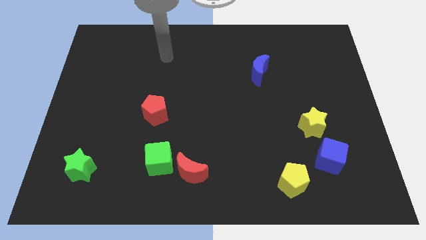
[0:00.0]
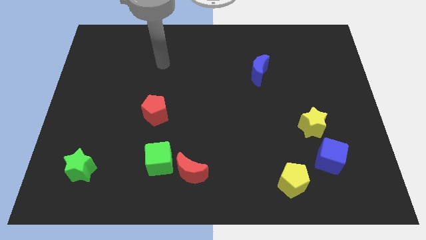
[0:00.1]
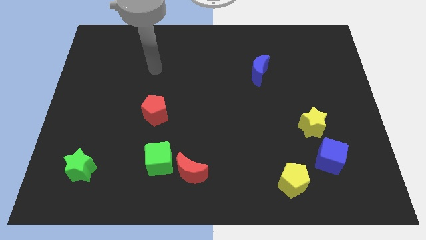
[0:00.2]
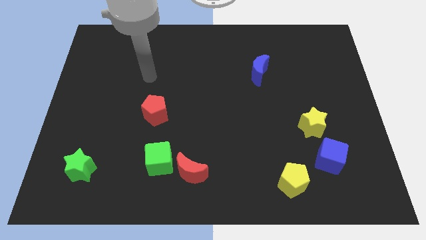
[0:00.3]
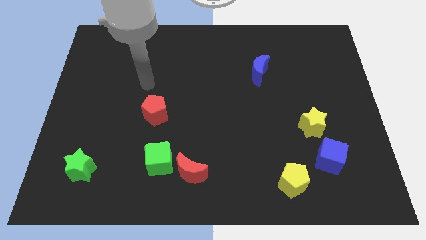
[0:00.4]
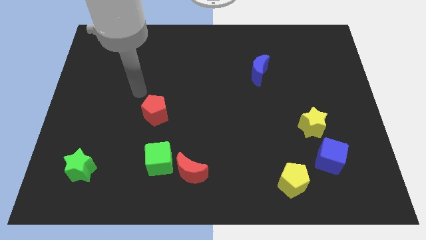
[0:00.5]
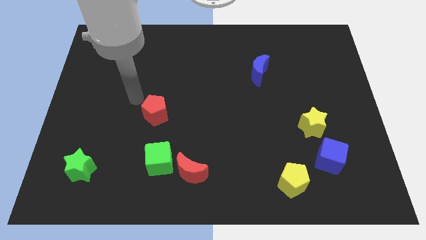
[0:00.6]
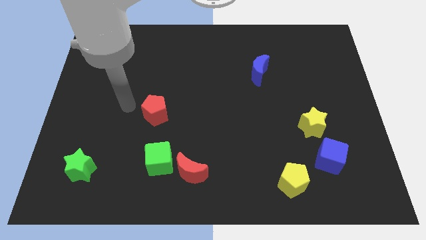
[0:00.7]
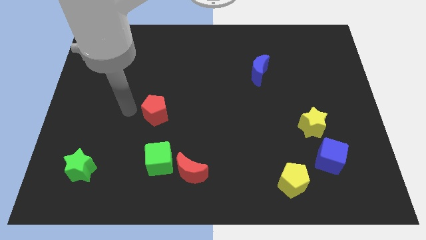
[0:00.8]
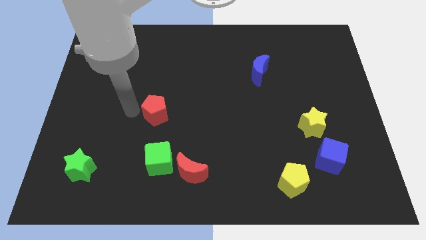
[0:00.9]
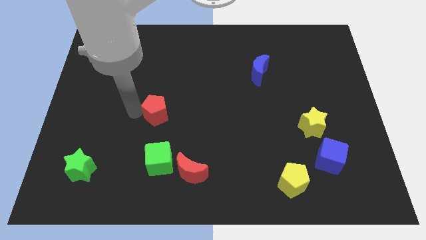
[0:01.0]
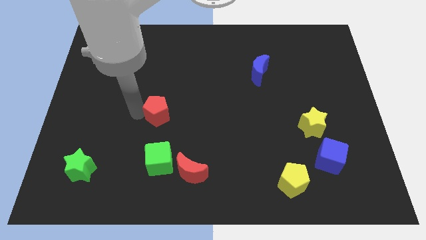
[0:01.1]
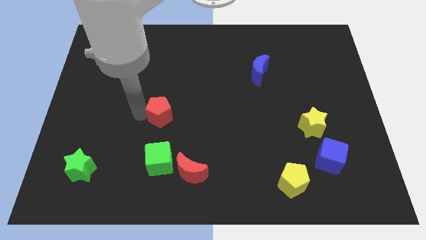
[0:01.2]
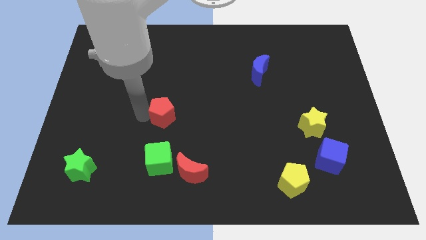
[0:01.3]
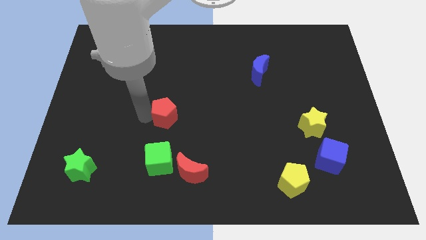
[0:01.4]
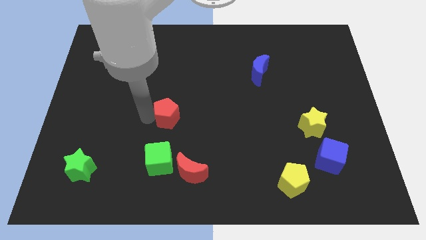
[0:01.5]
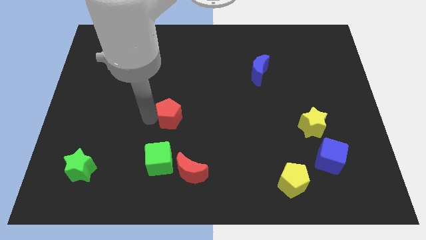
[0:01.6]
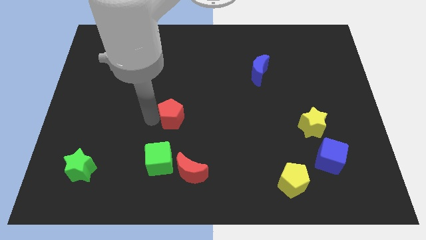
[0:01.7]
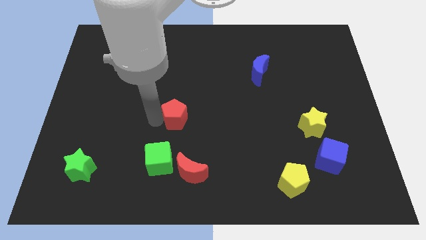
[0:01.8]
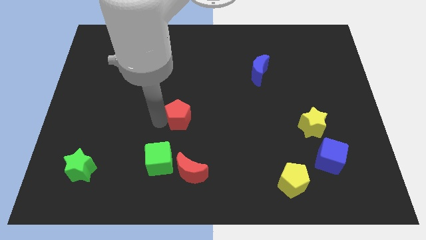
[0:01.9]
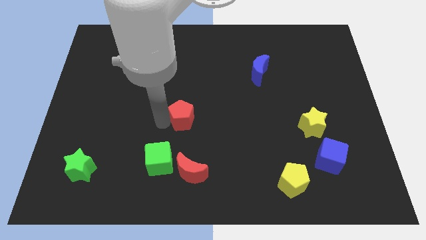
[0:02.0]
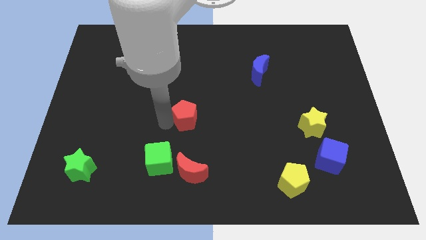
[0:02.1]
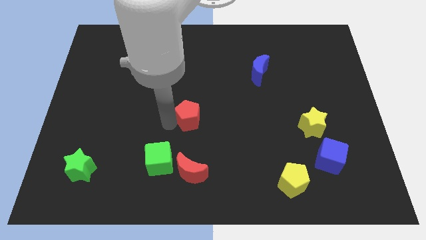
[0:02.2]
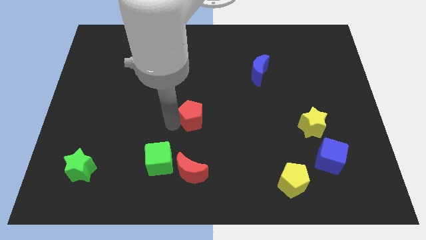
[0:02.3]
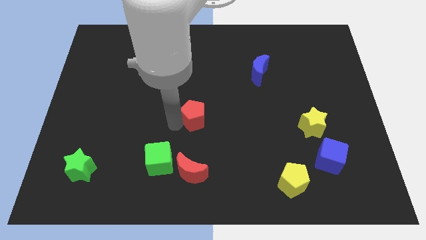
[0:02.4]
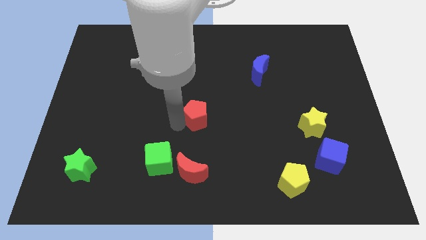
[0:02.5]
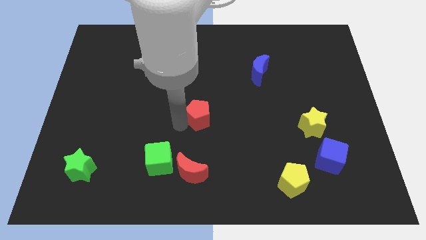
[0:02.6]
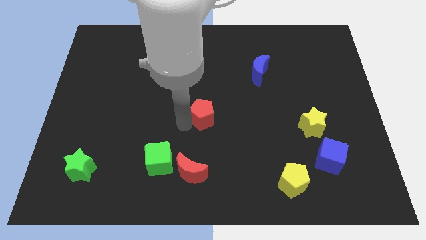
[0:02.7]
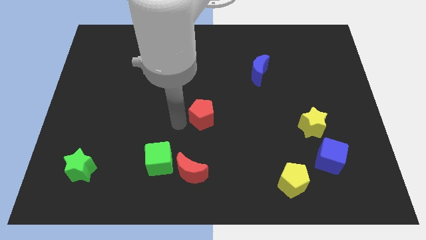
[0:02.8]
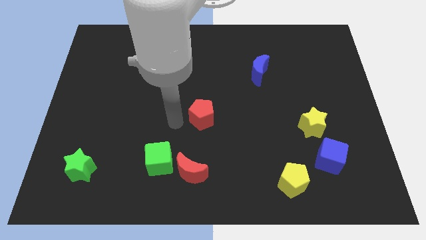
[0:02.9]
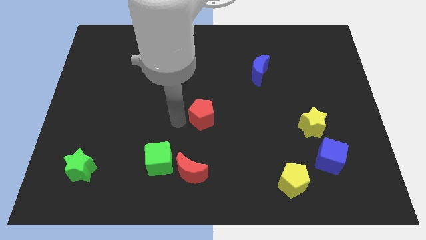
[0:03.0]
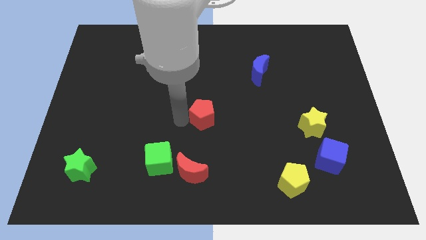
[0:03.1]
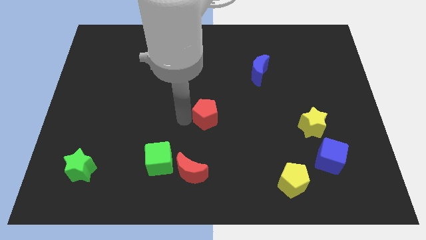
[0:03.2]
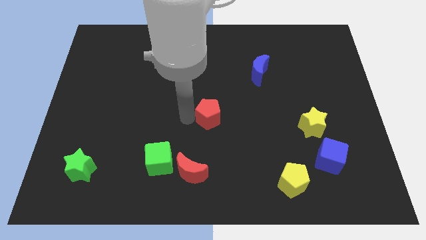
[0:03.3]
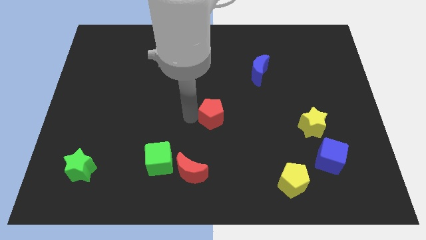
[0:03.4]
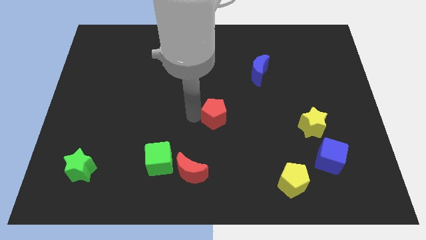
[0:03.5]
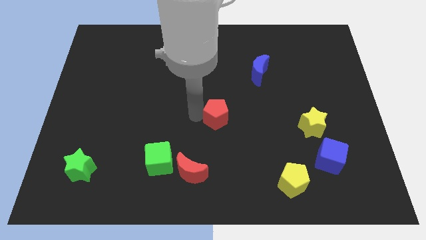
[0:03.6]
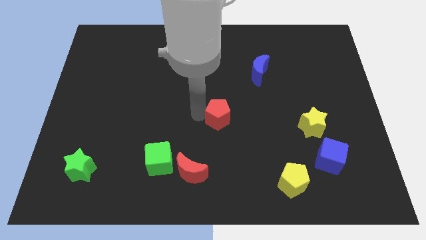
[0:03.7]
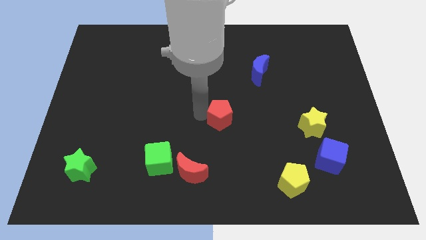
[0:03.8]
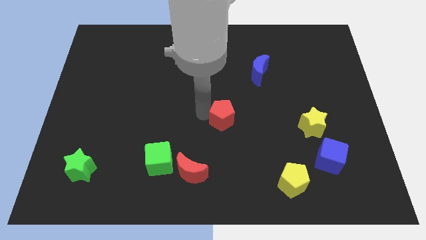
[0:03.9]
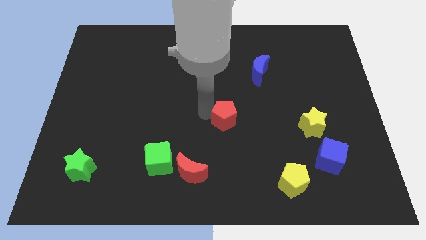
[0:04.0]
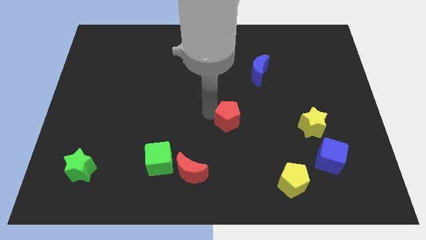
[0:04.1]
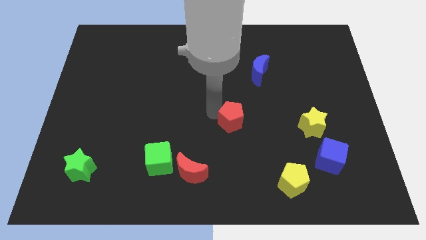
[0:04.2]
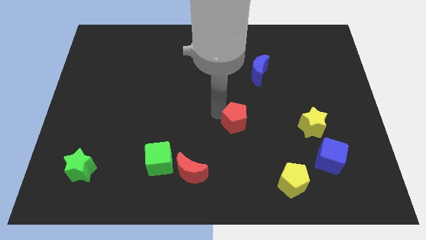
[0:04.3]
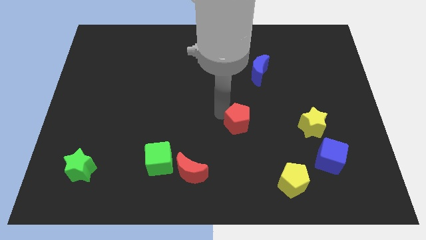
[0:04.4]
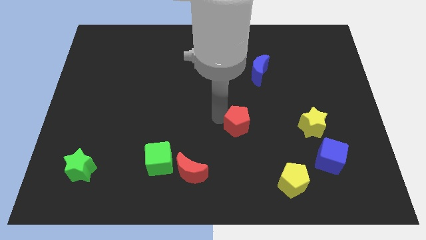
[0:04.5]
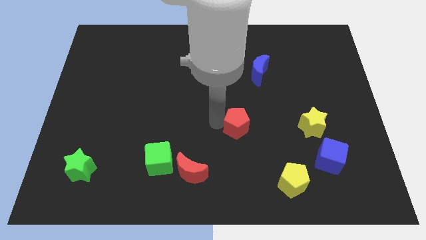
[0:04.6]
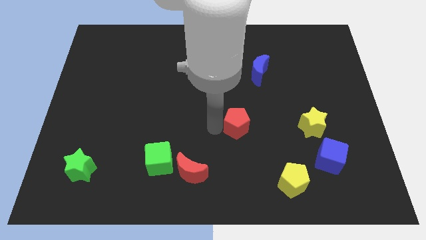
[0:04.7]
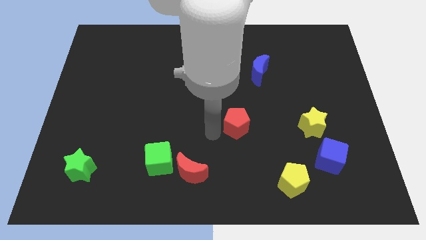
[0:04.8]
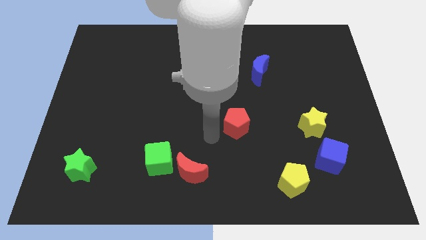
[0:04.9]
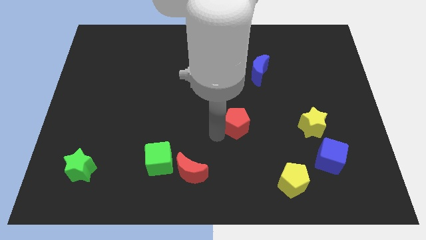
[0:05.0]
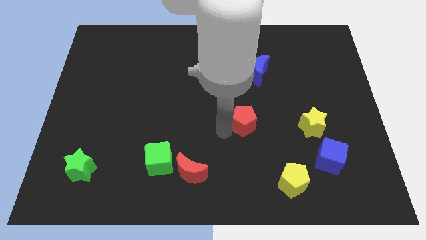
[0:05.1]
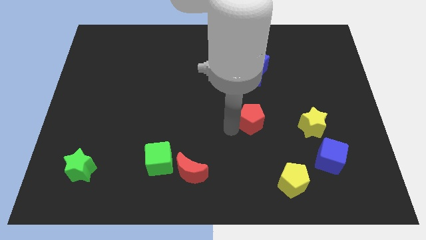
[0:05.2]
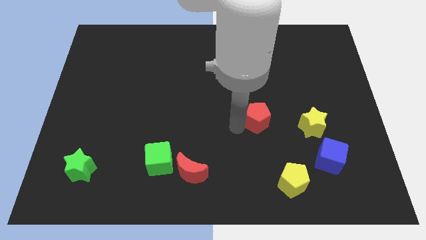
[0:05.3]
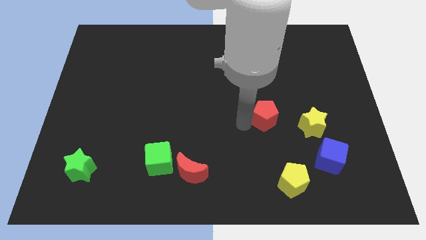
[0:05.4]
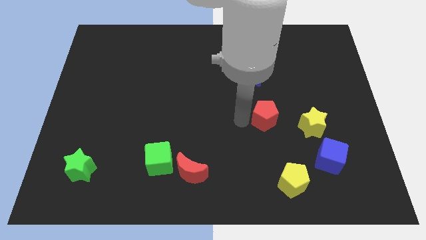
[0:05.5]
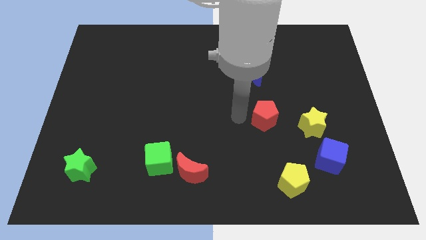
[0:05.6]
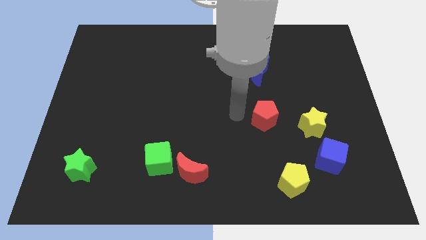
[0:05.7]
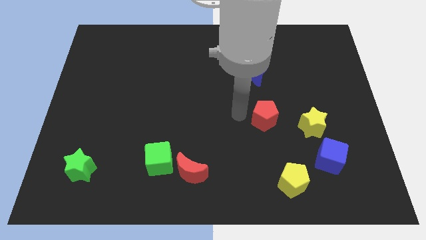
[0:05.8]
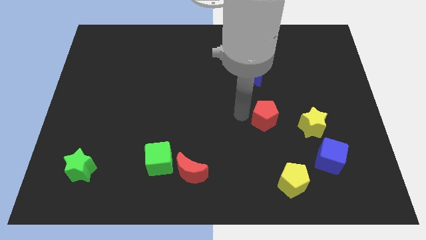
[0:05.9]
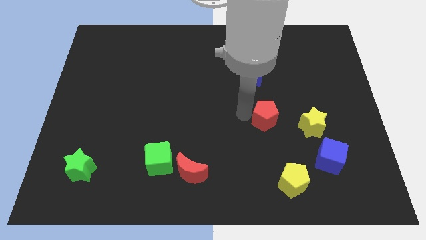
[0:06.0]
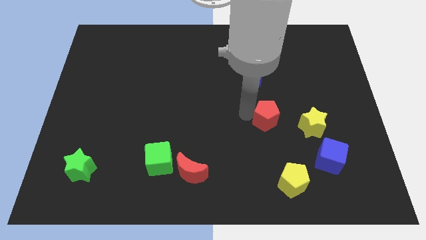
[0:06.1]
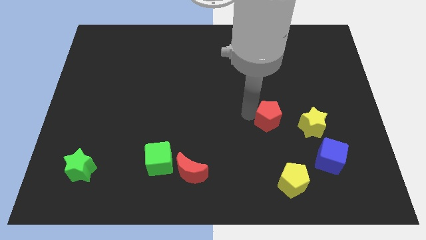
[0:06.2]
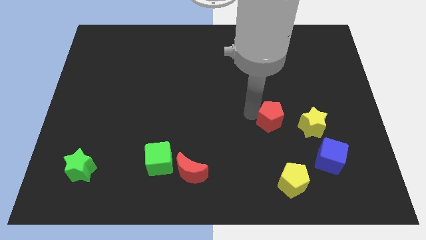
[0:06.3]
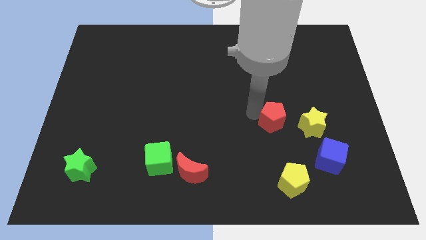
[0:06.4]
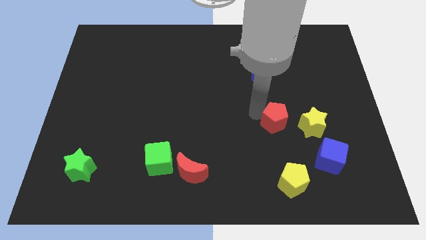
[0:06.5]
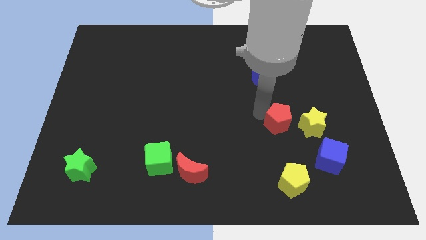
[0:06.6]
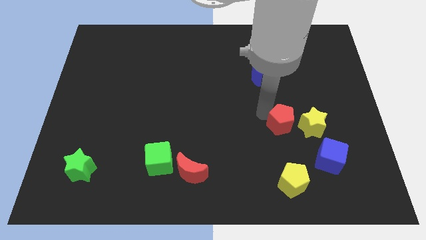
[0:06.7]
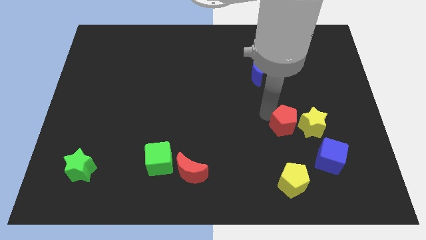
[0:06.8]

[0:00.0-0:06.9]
move the red pentagon next to the yellow star

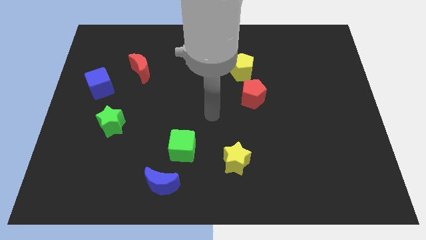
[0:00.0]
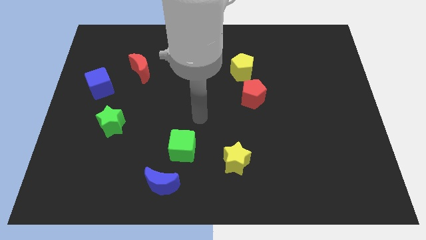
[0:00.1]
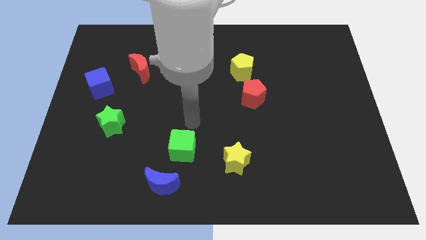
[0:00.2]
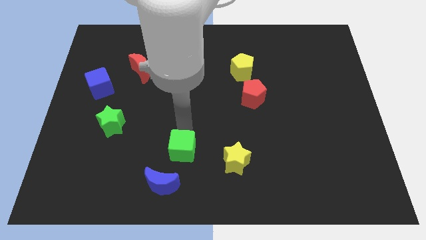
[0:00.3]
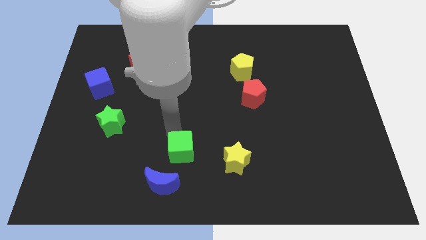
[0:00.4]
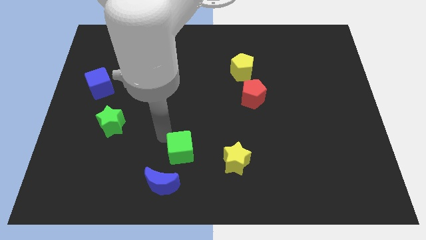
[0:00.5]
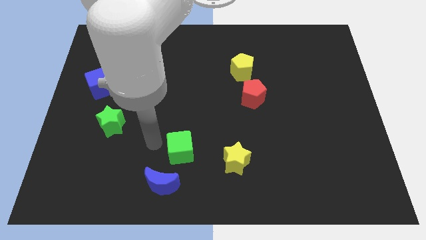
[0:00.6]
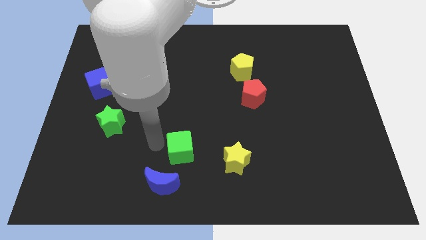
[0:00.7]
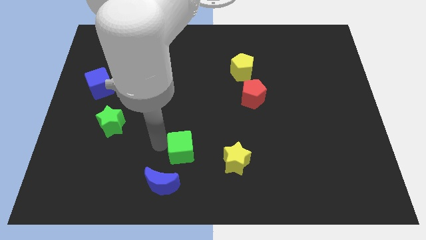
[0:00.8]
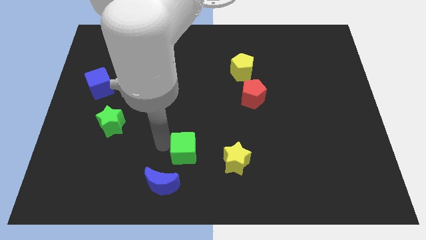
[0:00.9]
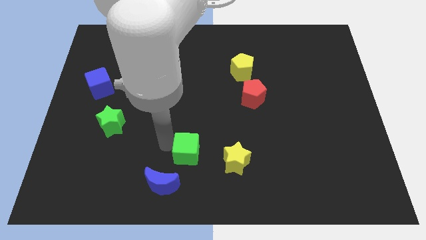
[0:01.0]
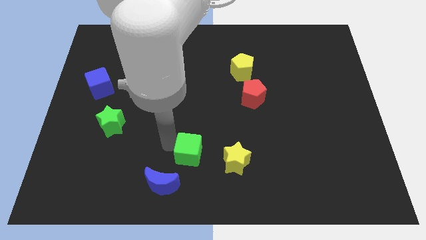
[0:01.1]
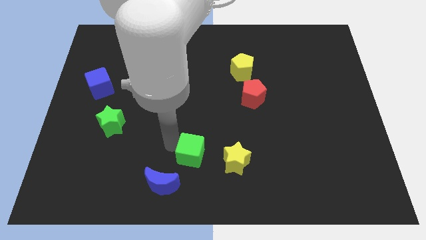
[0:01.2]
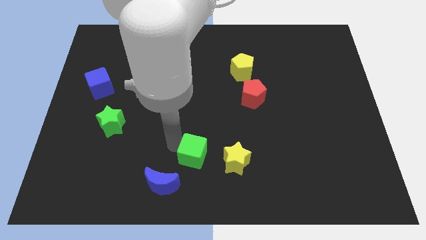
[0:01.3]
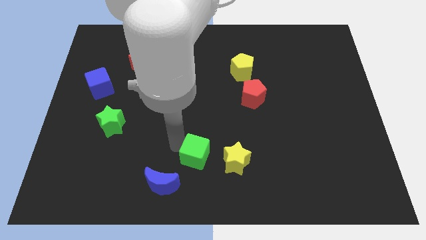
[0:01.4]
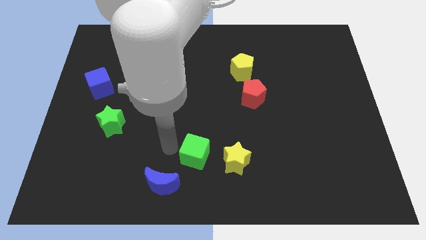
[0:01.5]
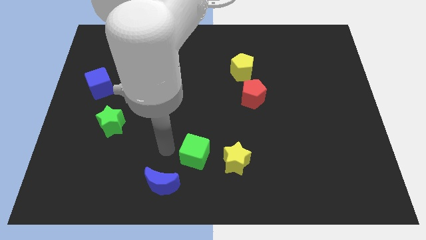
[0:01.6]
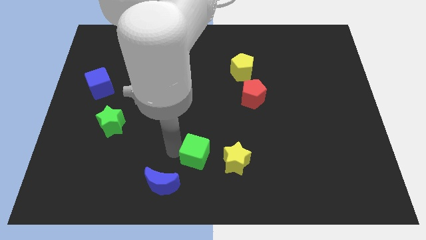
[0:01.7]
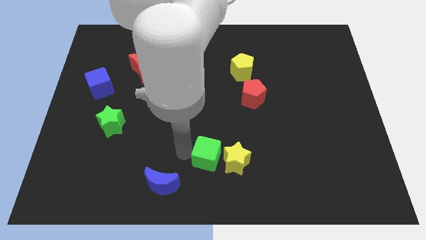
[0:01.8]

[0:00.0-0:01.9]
push the green cube towards the yellow star
